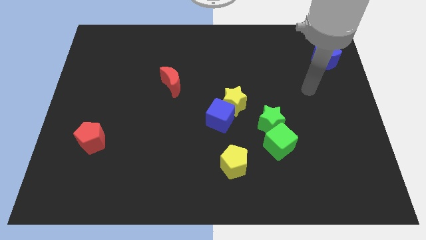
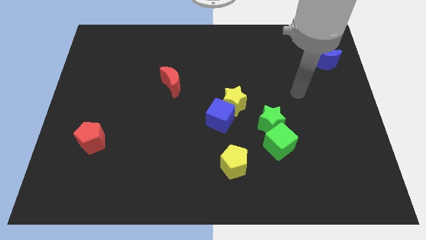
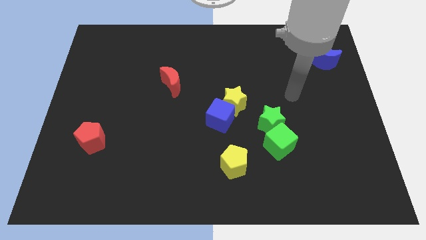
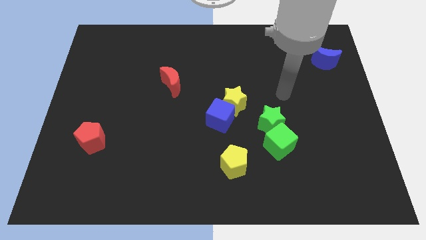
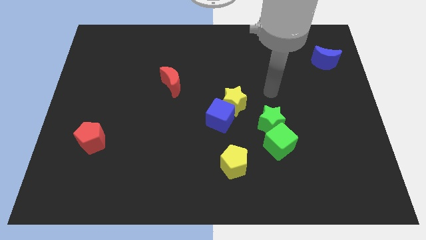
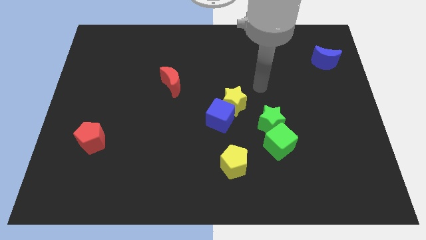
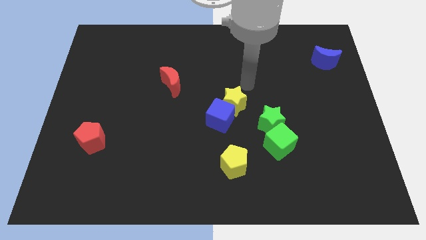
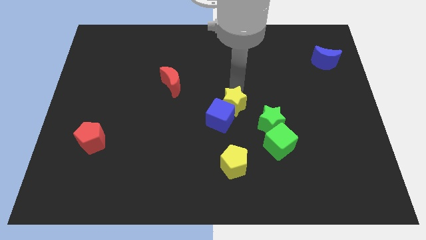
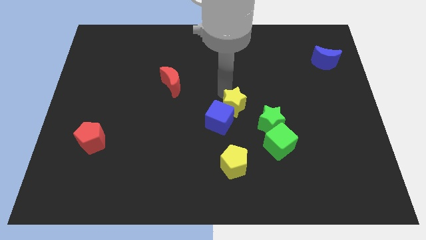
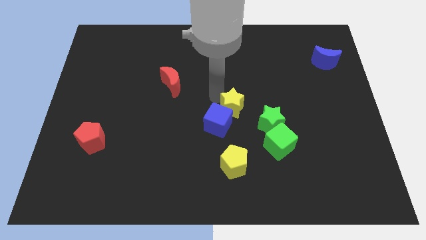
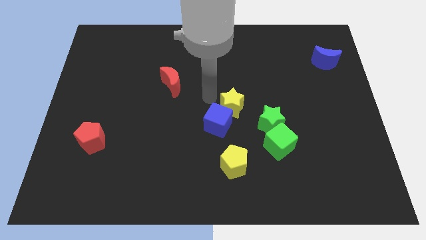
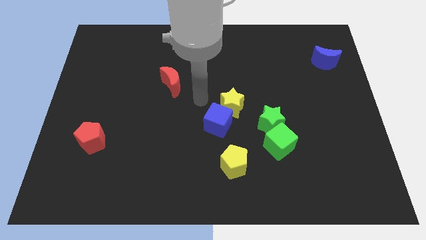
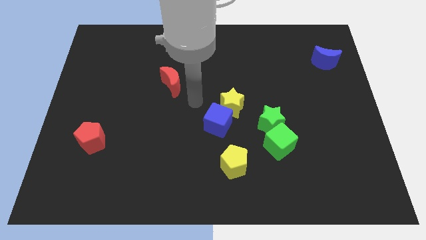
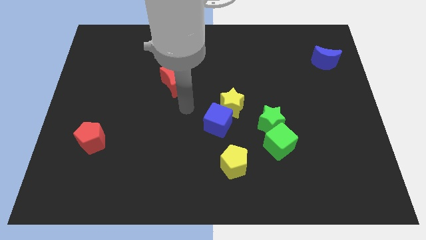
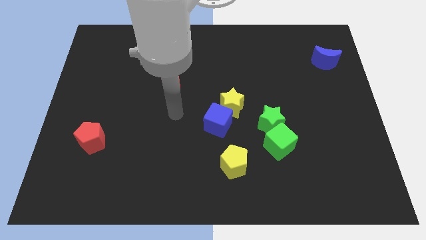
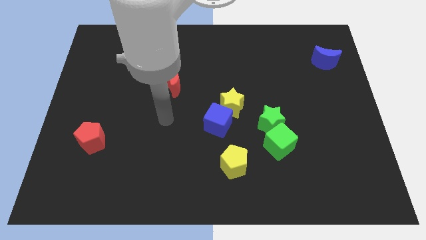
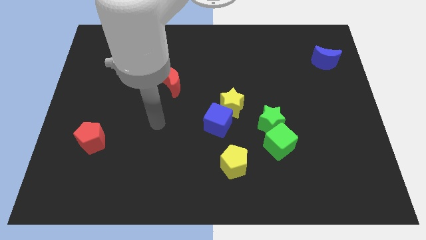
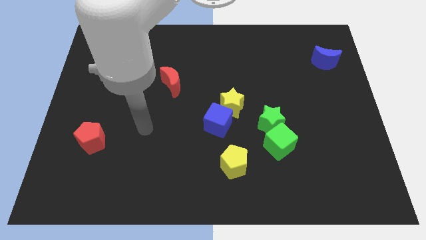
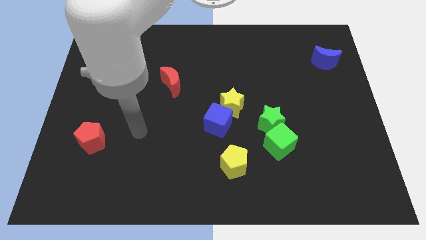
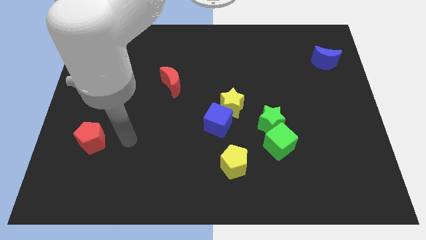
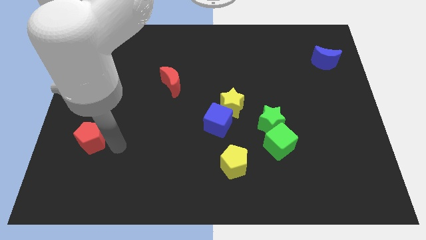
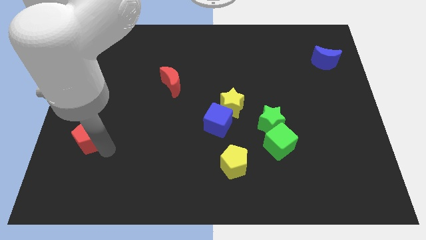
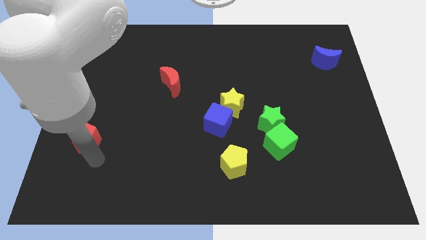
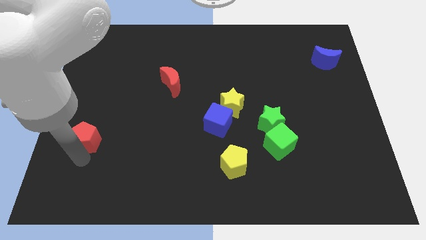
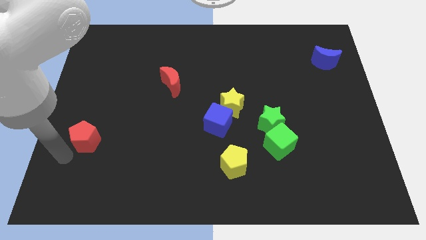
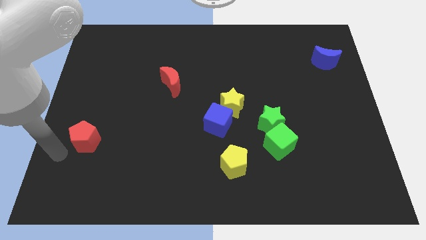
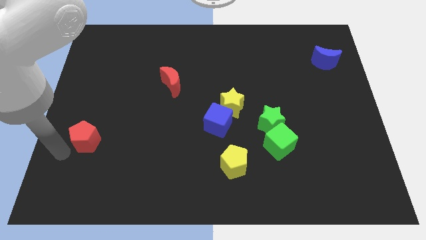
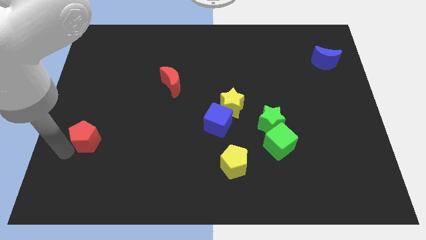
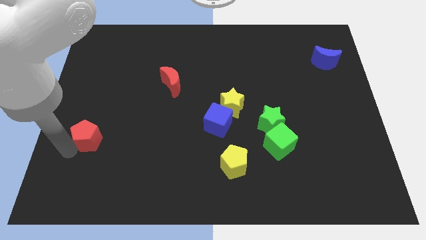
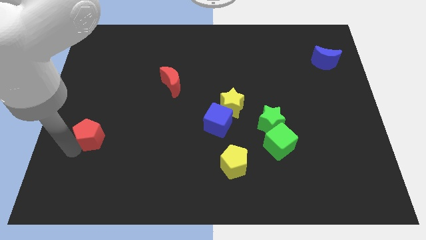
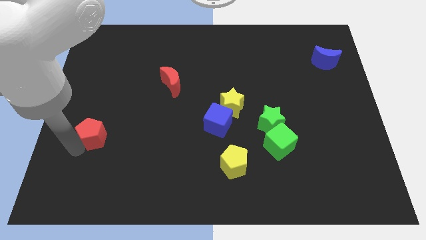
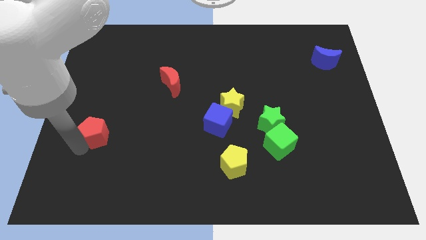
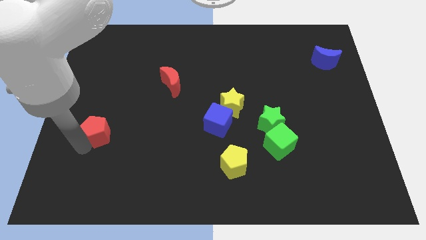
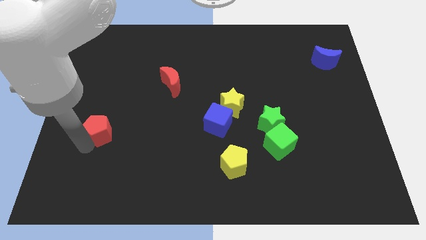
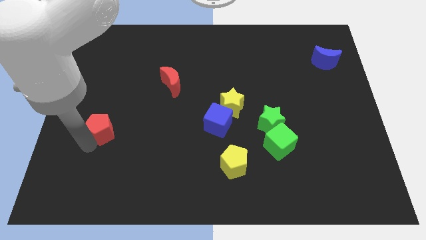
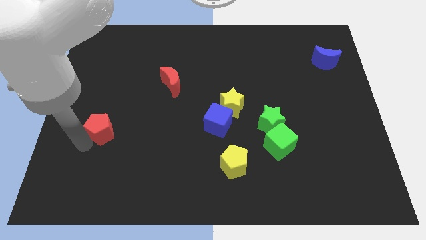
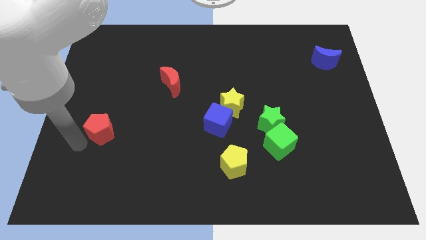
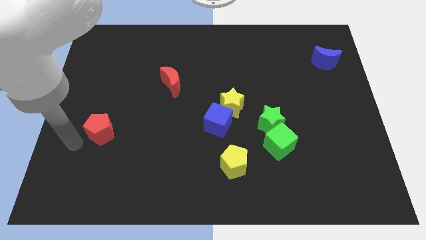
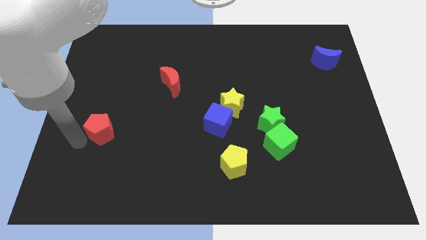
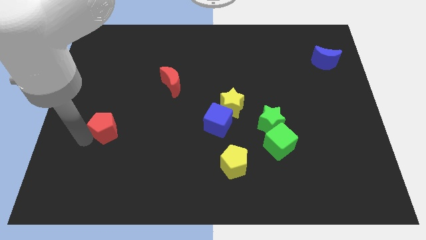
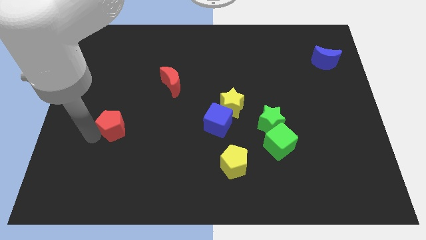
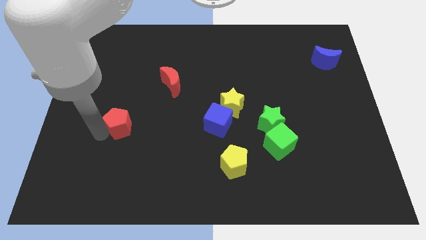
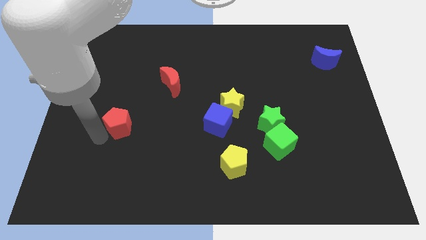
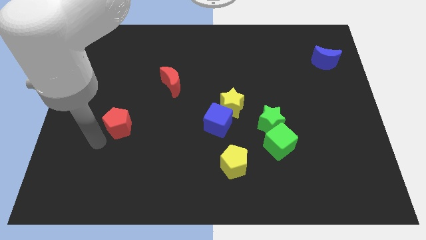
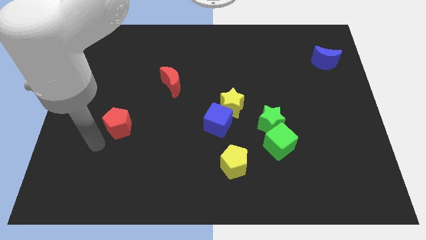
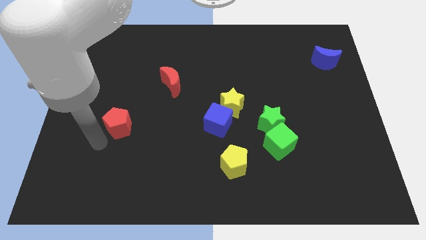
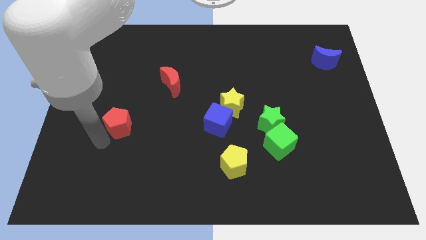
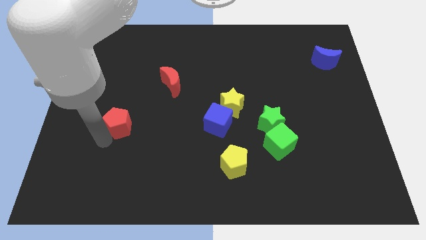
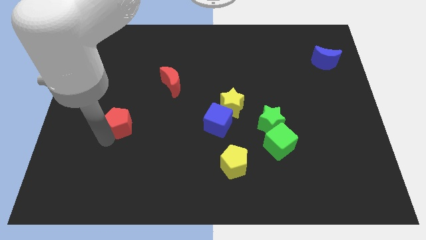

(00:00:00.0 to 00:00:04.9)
slide the red pentagon slightly upwards and right diagonally

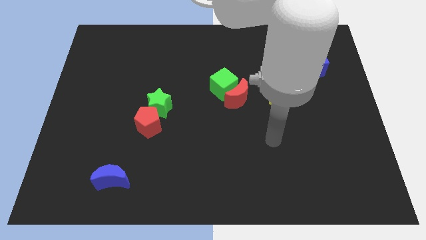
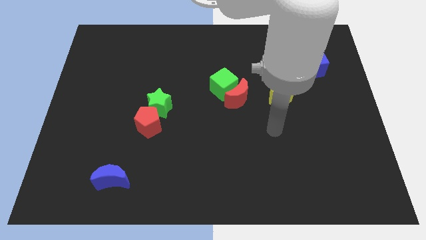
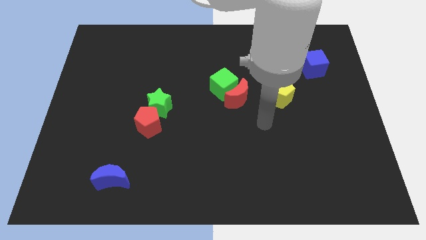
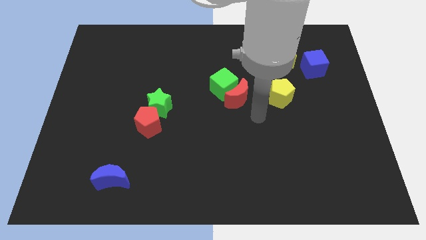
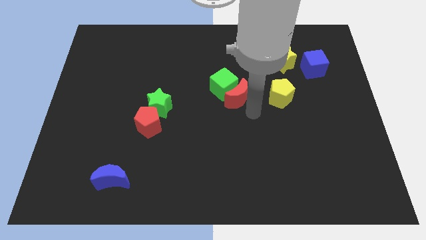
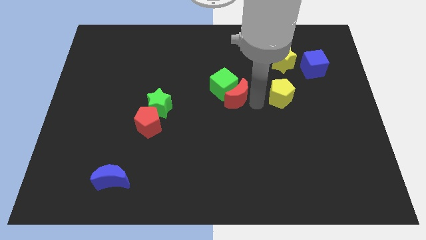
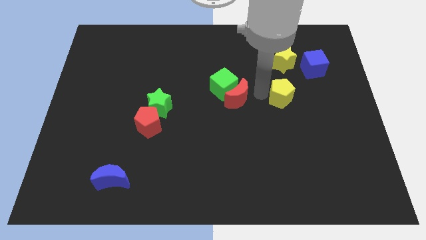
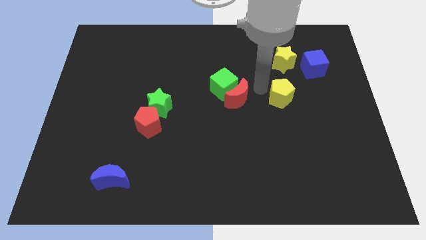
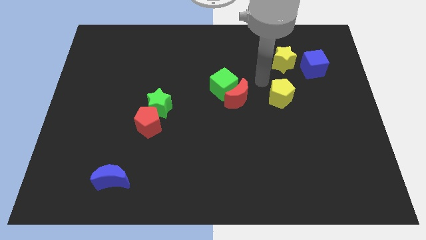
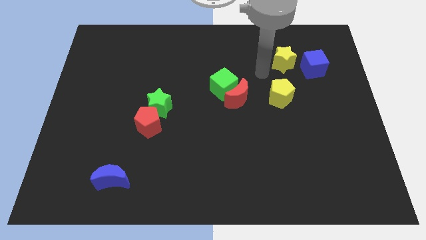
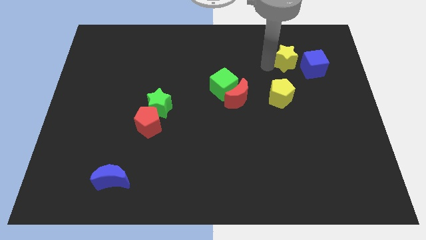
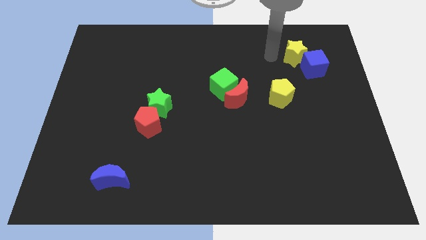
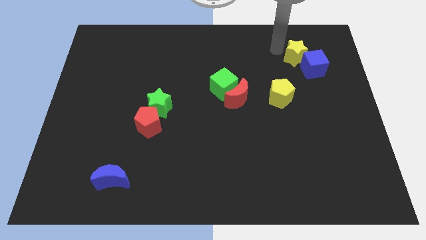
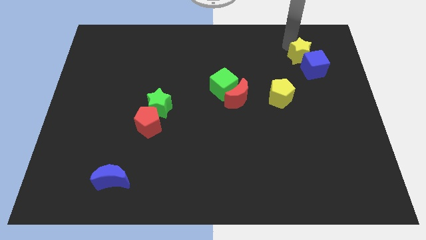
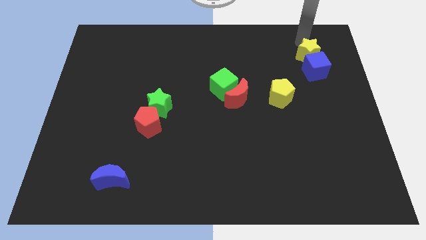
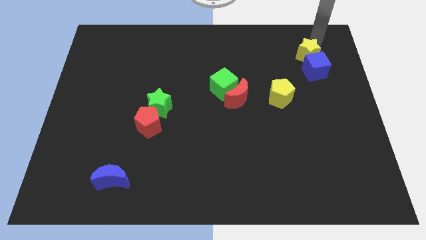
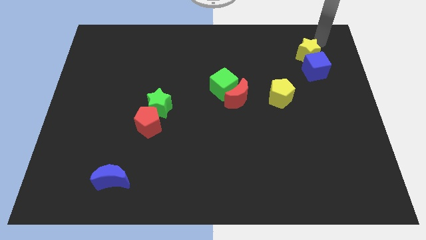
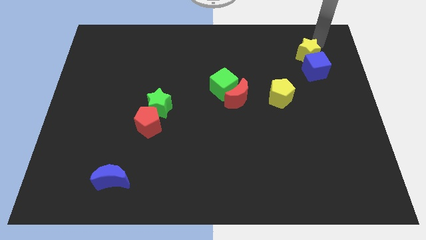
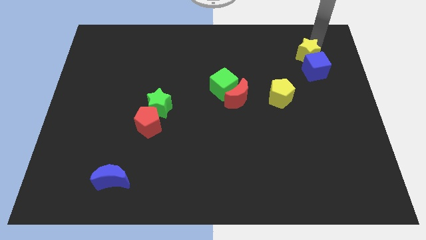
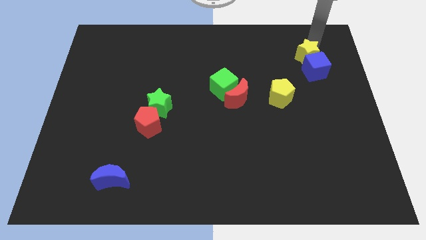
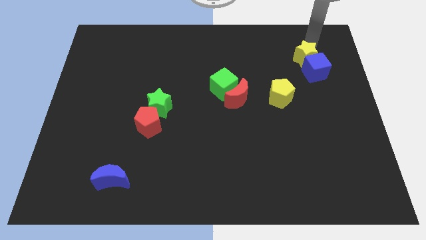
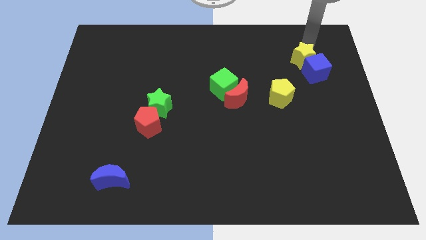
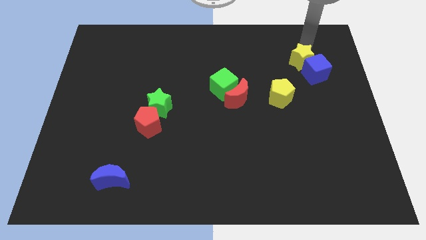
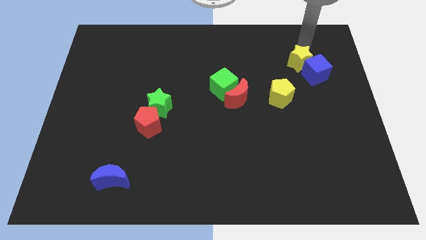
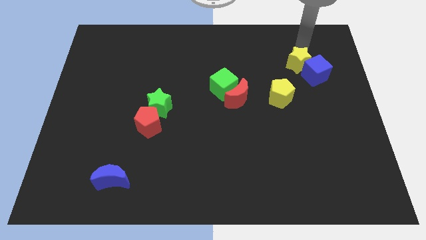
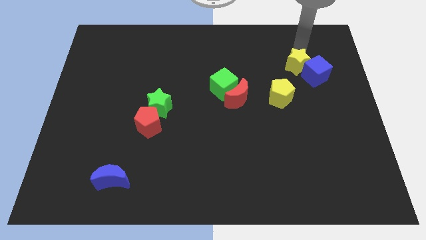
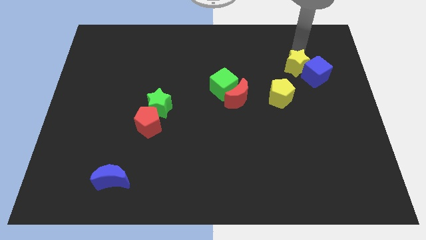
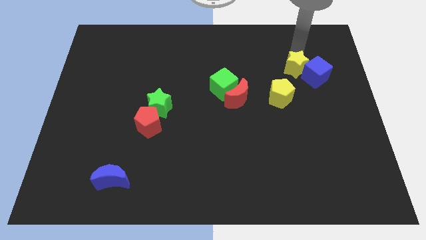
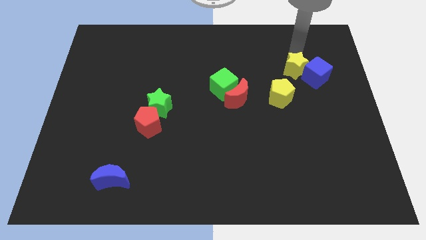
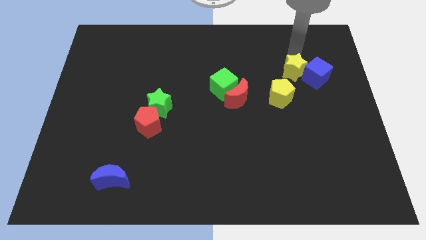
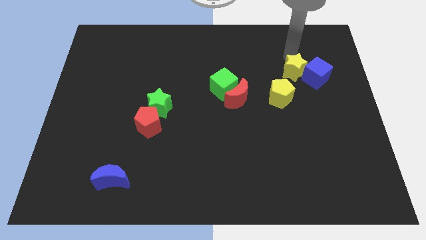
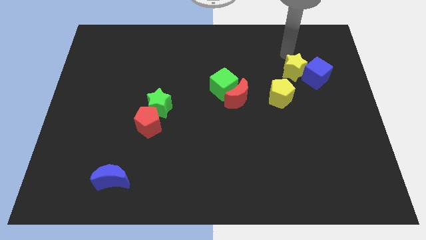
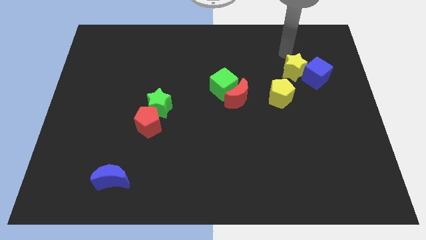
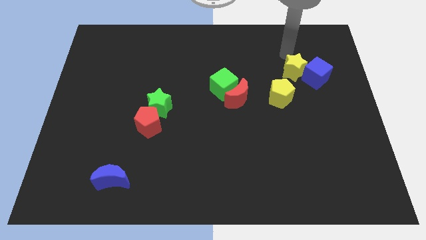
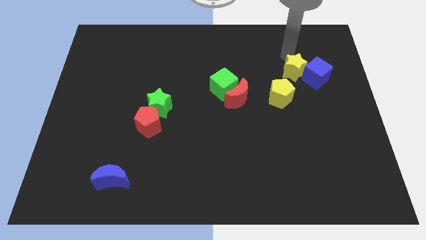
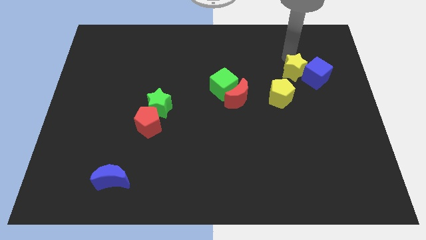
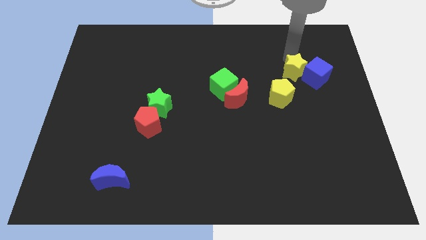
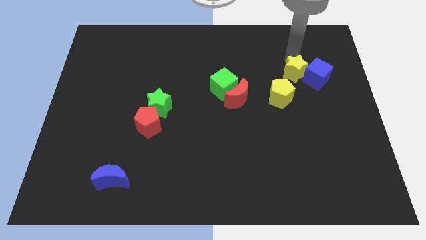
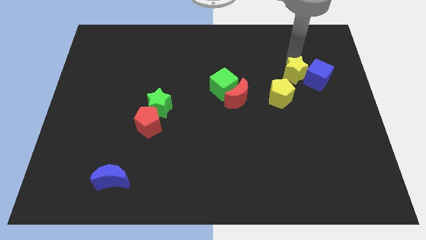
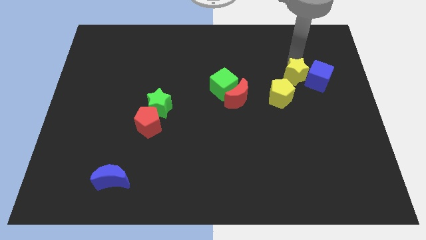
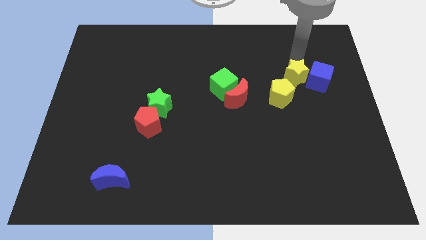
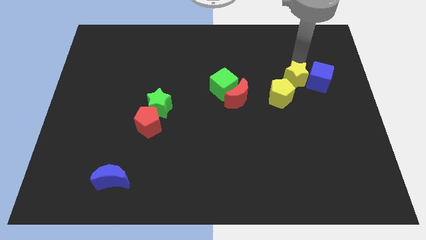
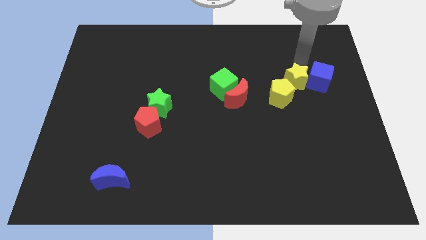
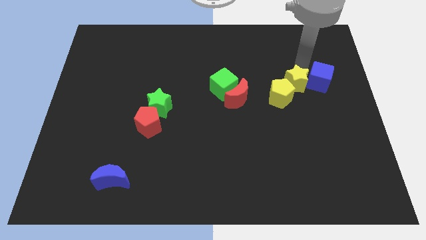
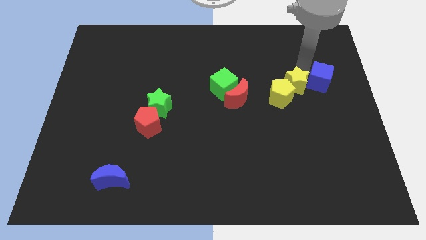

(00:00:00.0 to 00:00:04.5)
move the yellow star downwards a little
